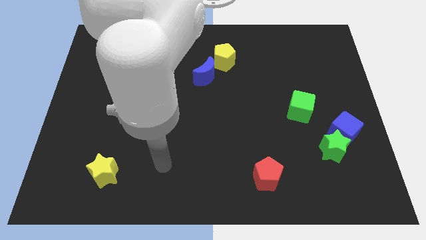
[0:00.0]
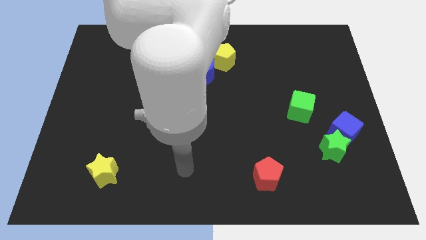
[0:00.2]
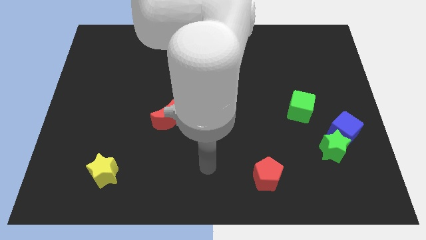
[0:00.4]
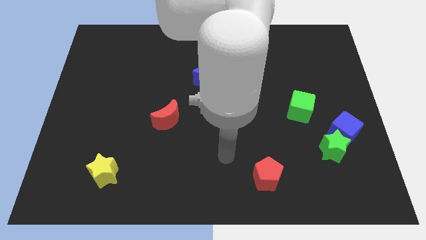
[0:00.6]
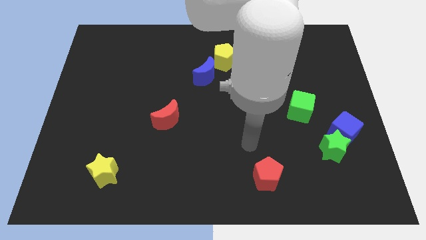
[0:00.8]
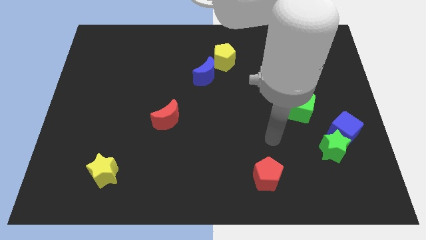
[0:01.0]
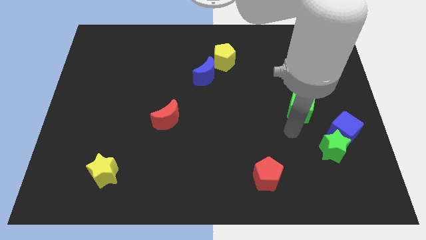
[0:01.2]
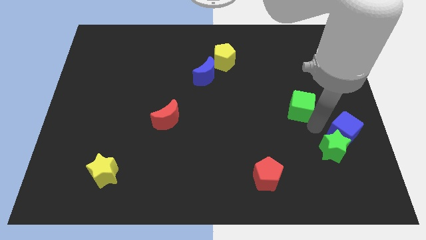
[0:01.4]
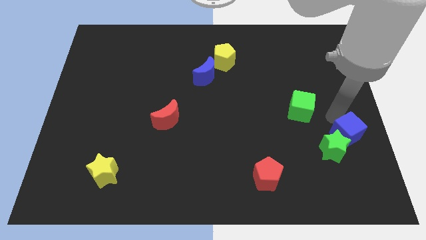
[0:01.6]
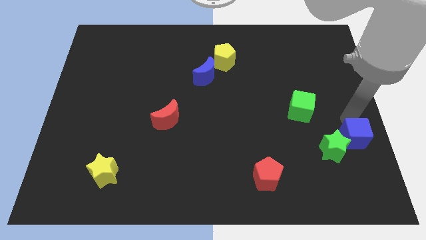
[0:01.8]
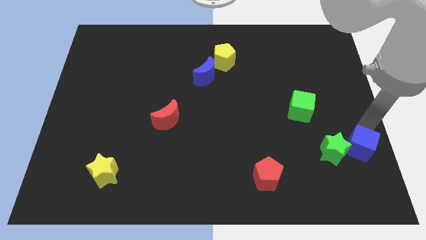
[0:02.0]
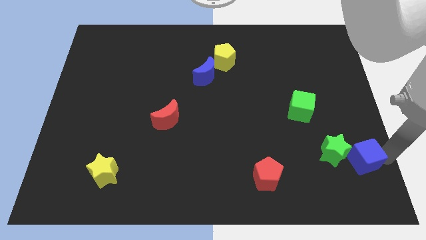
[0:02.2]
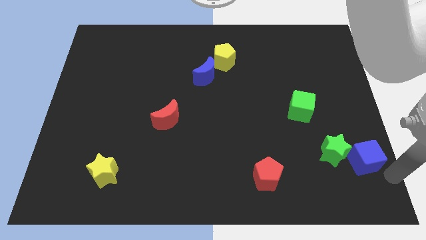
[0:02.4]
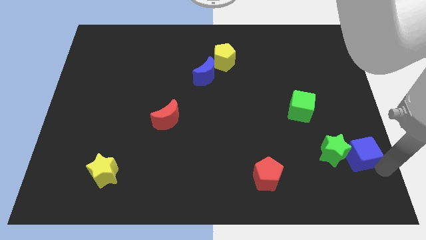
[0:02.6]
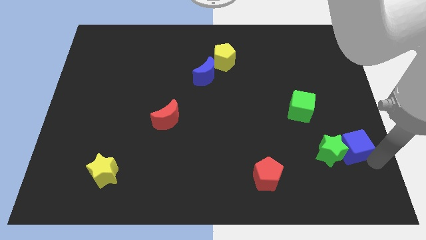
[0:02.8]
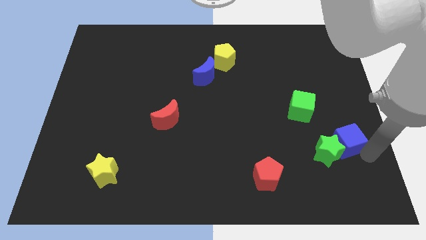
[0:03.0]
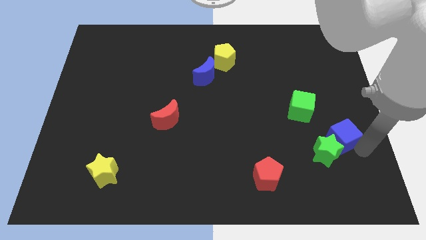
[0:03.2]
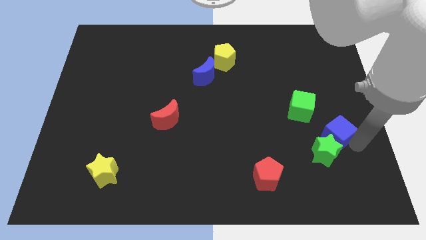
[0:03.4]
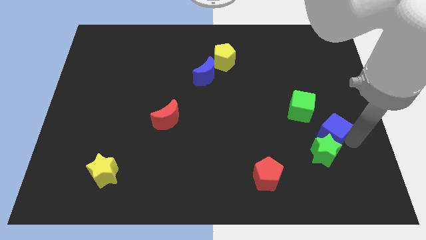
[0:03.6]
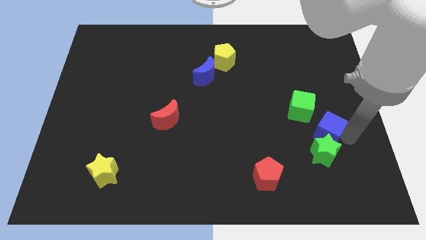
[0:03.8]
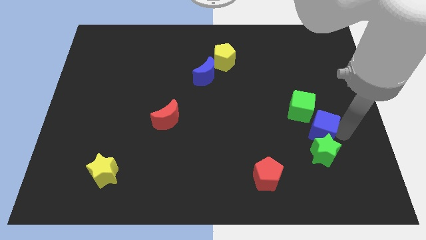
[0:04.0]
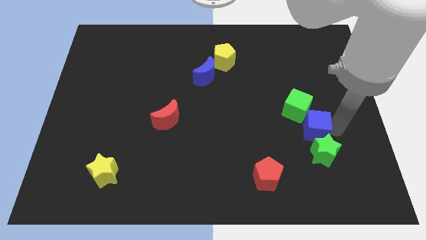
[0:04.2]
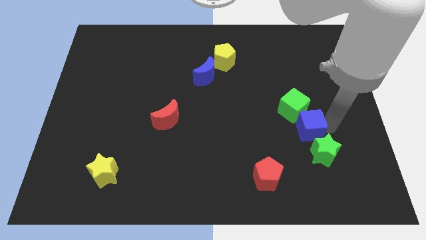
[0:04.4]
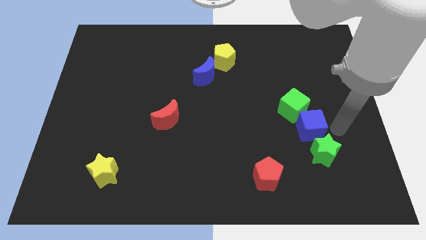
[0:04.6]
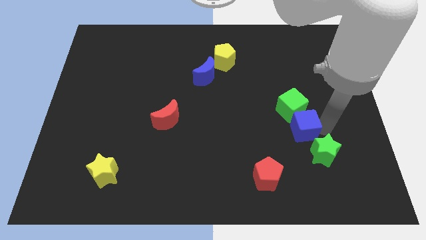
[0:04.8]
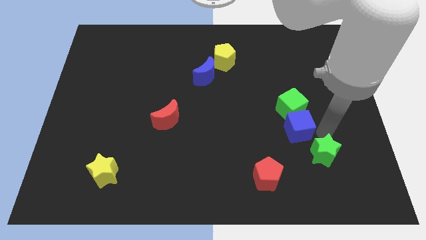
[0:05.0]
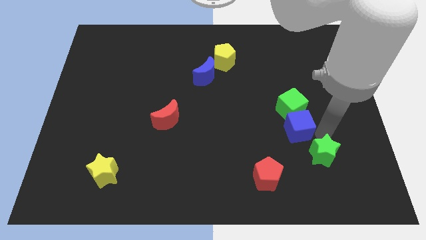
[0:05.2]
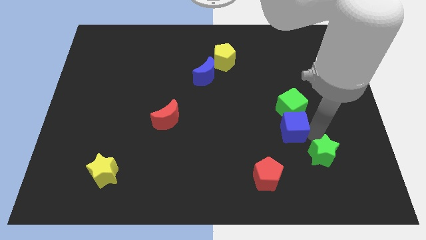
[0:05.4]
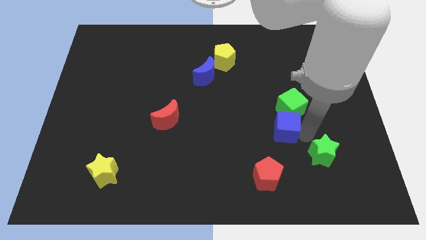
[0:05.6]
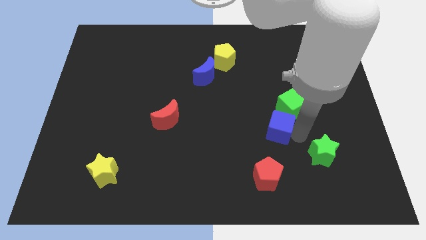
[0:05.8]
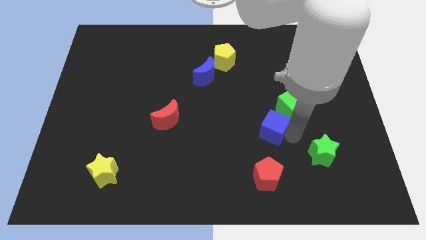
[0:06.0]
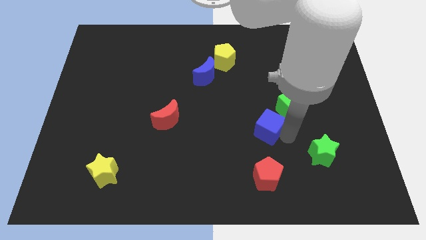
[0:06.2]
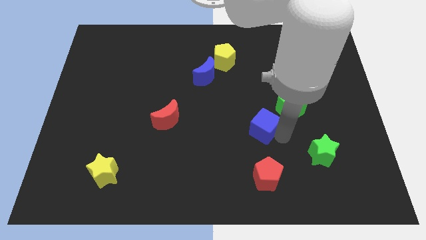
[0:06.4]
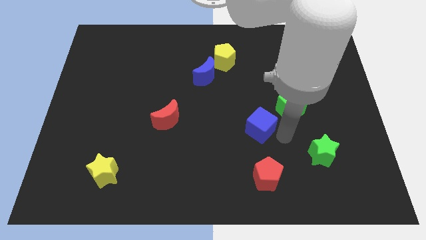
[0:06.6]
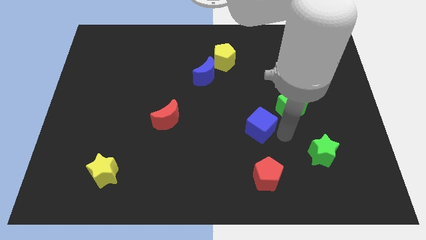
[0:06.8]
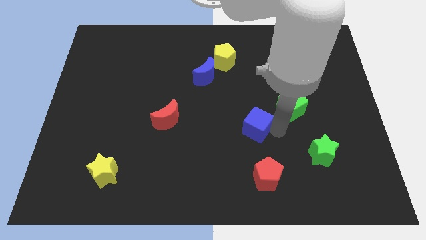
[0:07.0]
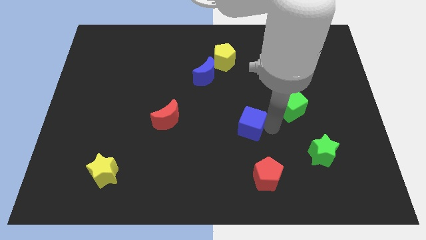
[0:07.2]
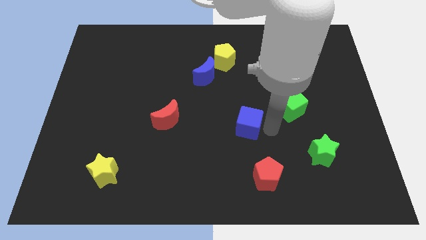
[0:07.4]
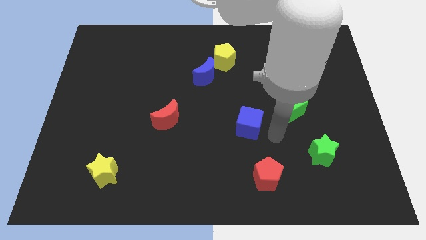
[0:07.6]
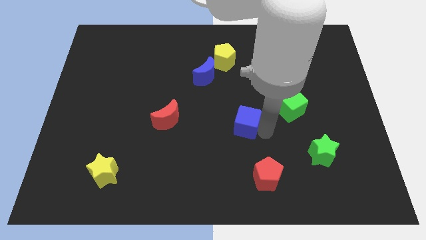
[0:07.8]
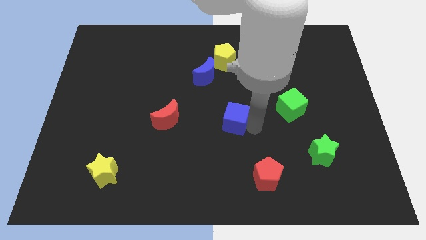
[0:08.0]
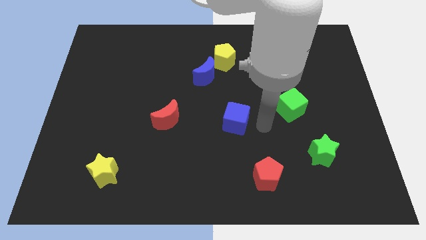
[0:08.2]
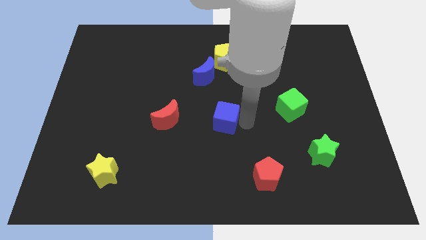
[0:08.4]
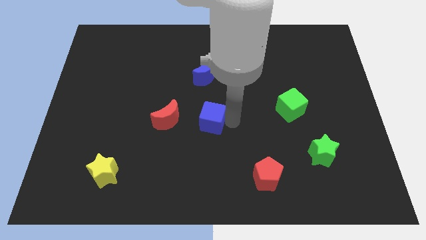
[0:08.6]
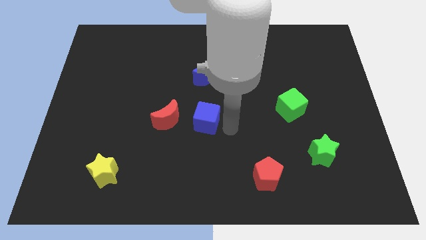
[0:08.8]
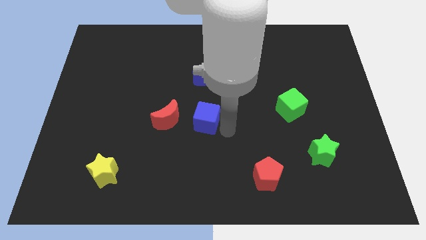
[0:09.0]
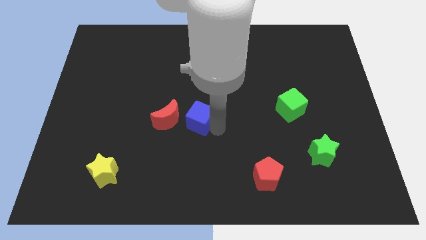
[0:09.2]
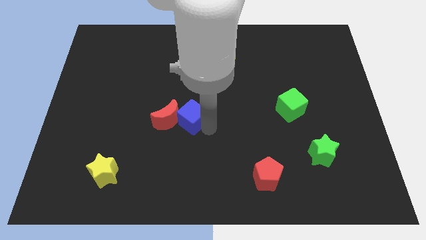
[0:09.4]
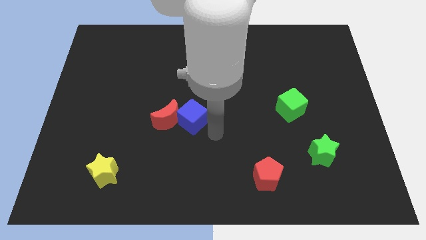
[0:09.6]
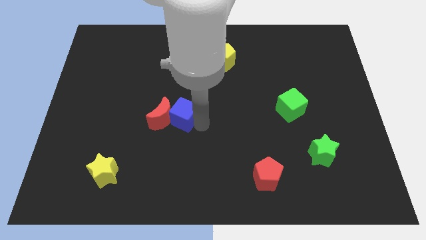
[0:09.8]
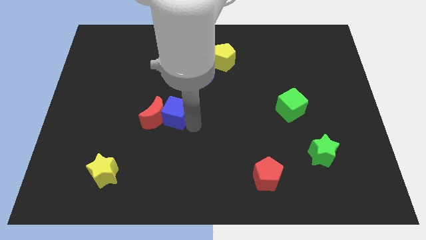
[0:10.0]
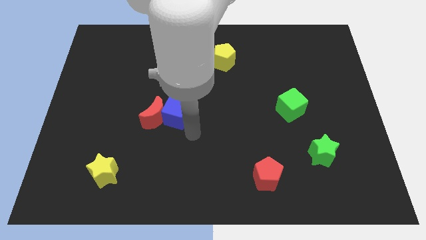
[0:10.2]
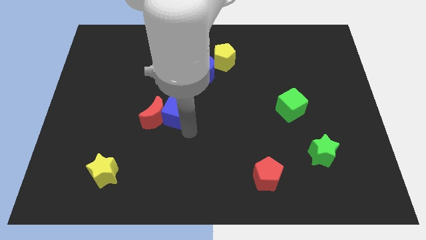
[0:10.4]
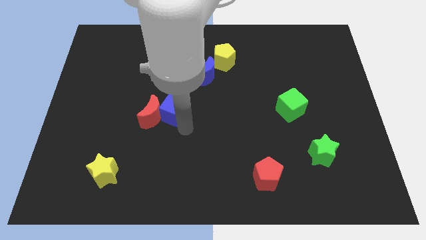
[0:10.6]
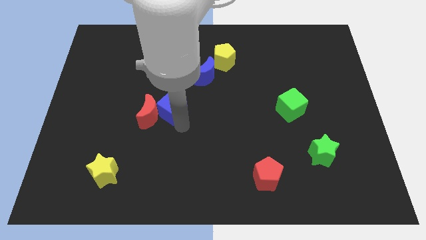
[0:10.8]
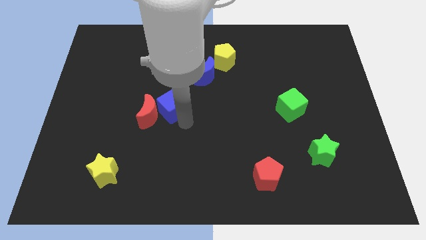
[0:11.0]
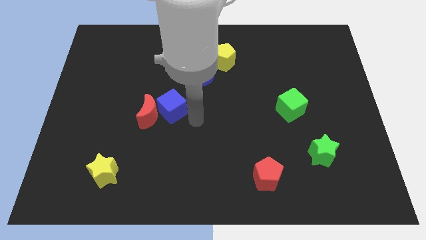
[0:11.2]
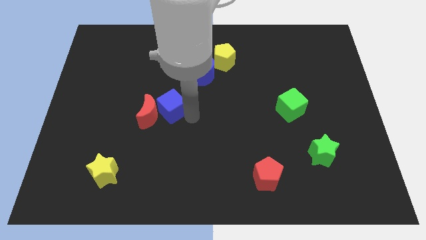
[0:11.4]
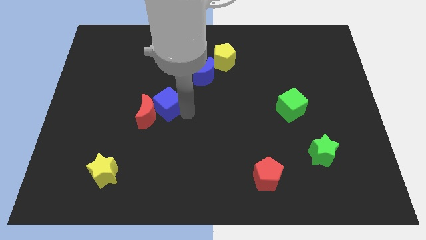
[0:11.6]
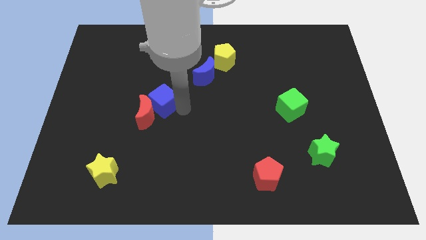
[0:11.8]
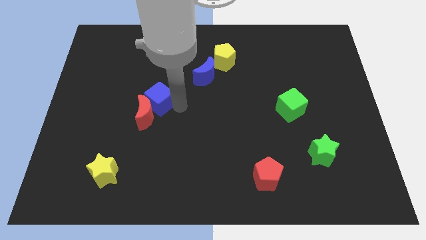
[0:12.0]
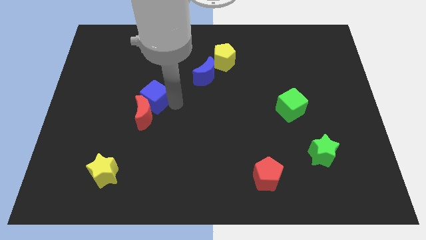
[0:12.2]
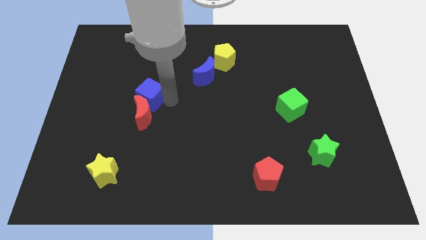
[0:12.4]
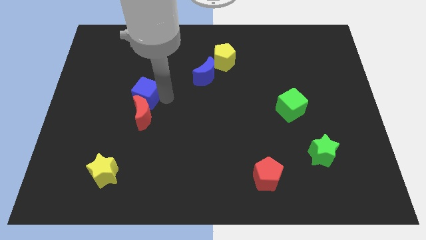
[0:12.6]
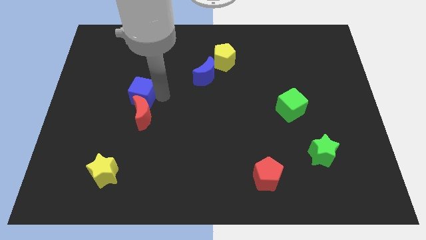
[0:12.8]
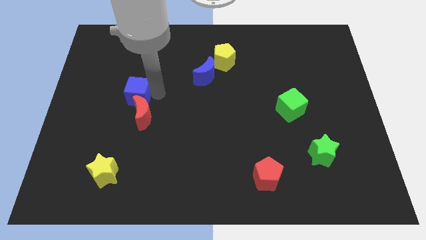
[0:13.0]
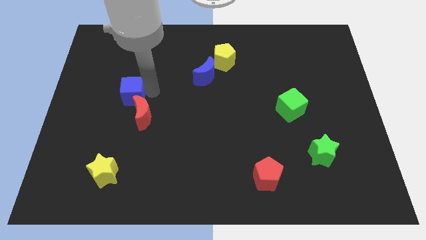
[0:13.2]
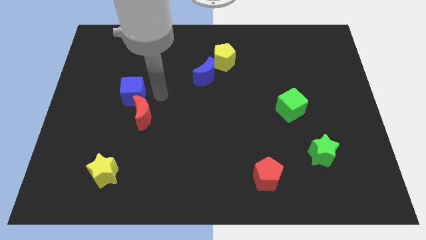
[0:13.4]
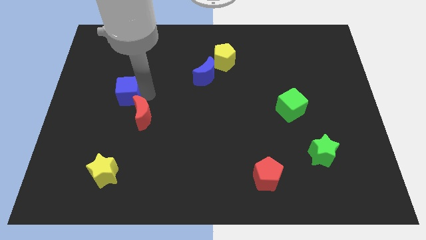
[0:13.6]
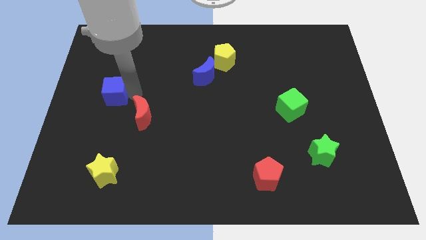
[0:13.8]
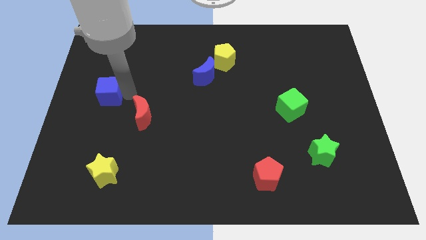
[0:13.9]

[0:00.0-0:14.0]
slide the blue cube to the left side
